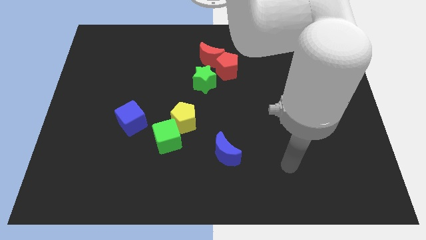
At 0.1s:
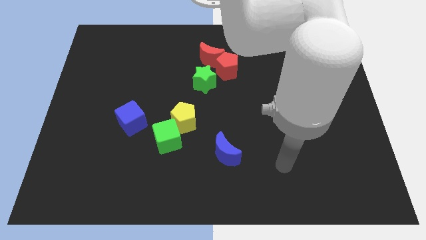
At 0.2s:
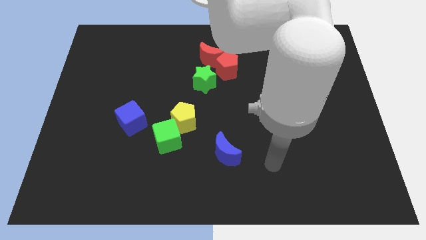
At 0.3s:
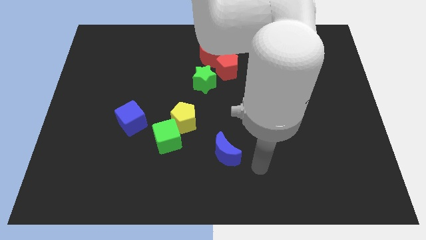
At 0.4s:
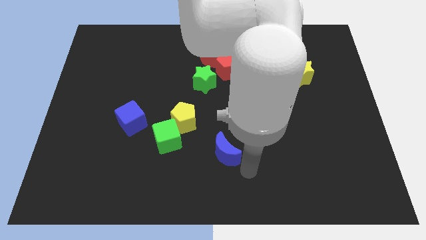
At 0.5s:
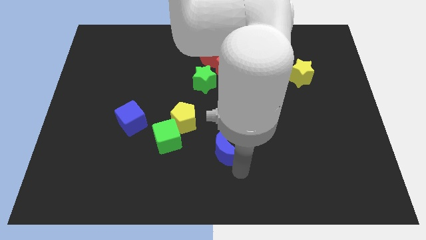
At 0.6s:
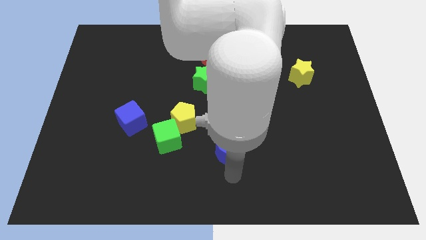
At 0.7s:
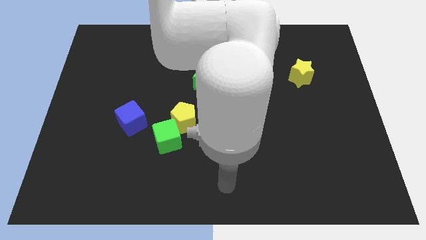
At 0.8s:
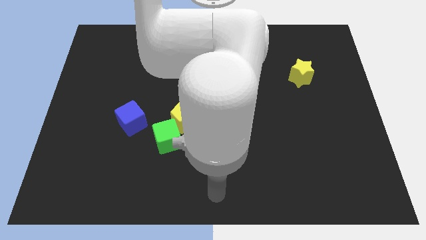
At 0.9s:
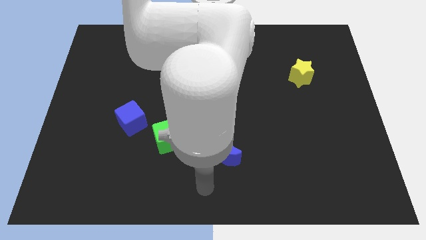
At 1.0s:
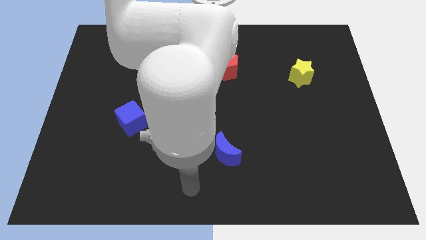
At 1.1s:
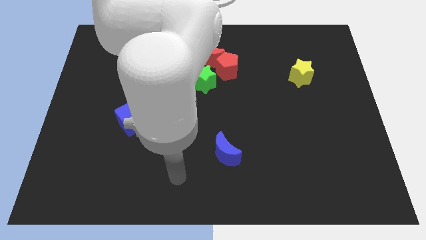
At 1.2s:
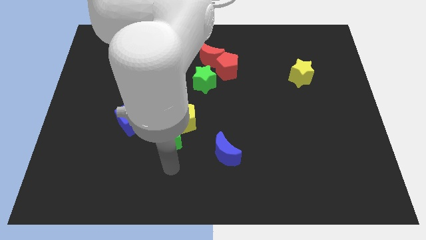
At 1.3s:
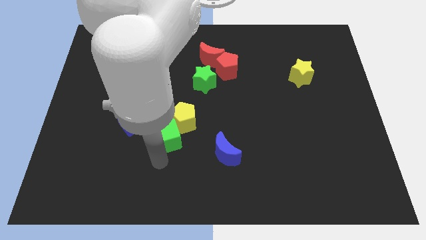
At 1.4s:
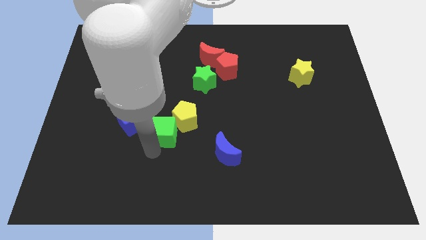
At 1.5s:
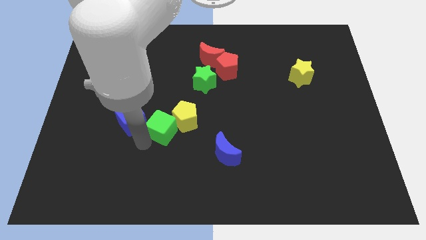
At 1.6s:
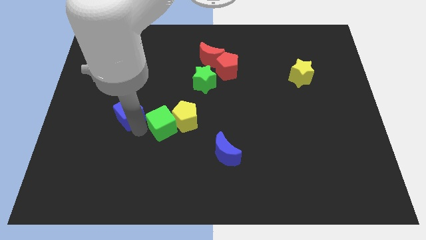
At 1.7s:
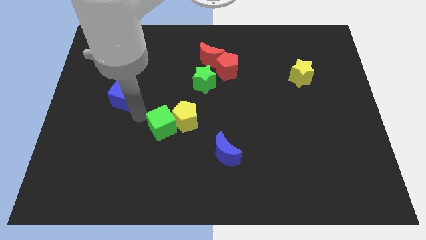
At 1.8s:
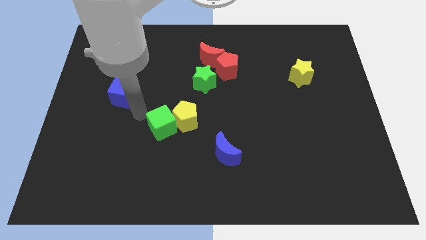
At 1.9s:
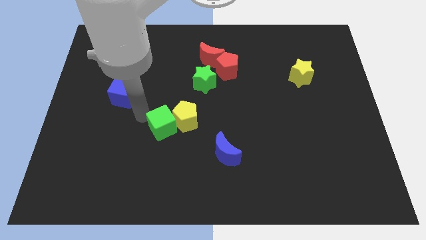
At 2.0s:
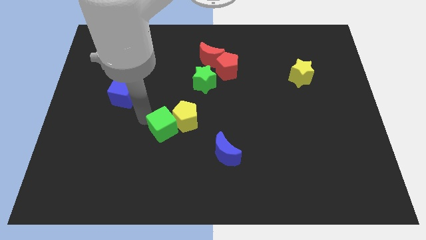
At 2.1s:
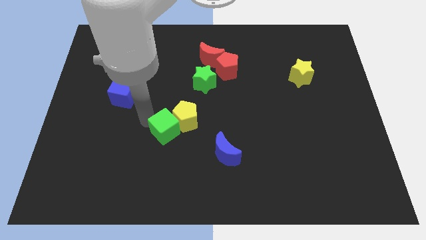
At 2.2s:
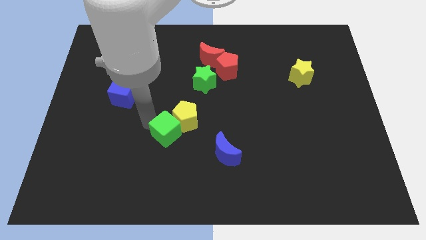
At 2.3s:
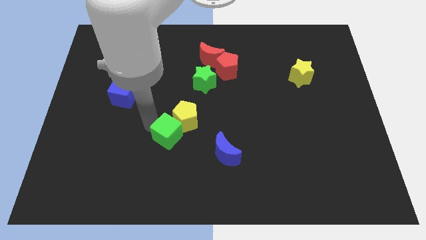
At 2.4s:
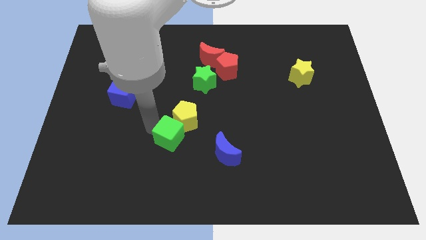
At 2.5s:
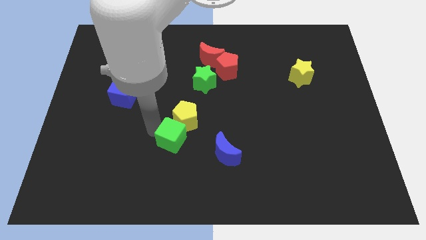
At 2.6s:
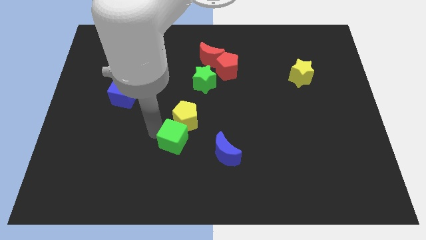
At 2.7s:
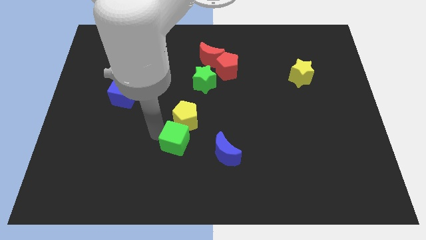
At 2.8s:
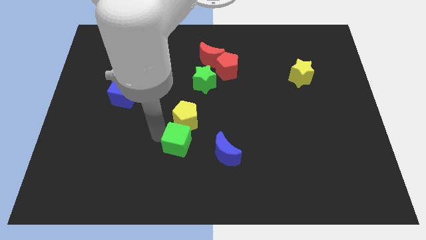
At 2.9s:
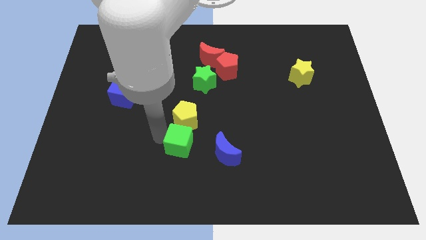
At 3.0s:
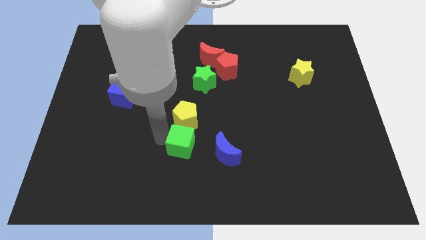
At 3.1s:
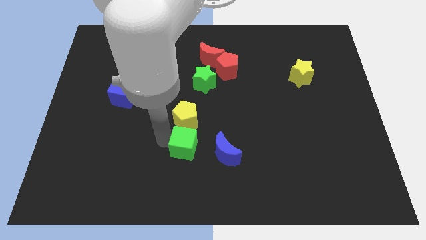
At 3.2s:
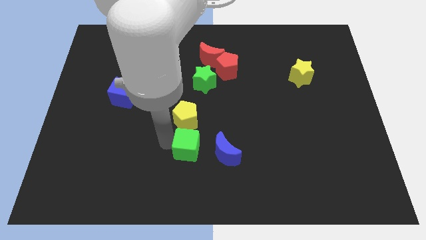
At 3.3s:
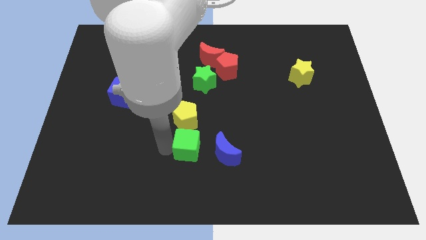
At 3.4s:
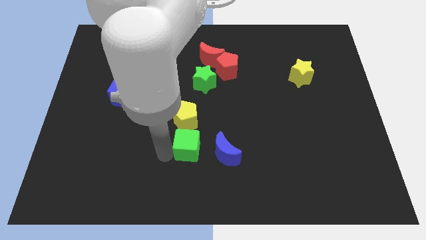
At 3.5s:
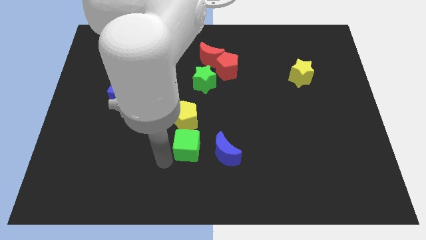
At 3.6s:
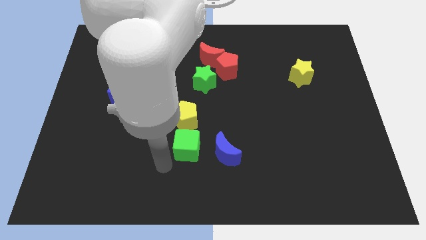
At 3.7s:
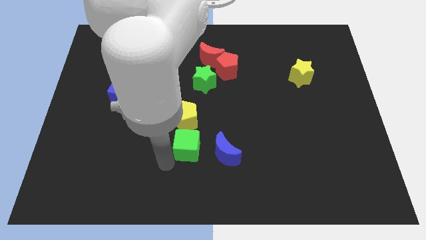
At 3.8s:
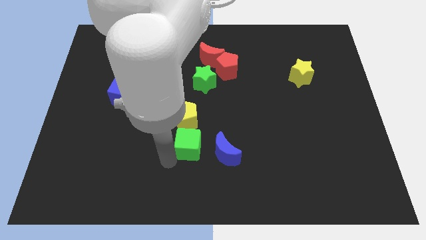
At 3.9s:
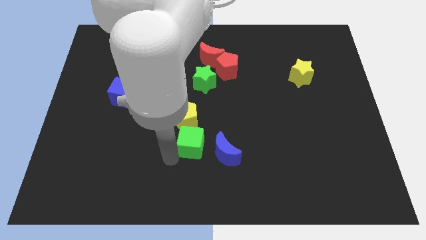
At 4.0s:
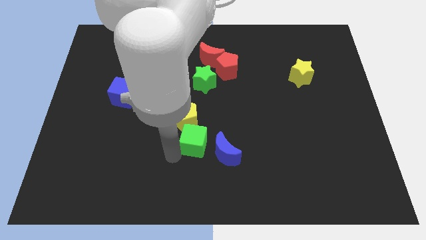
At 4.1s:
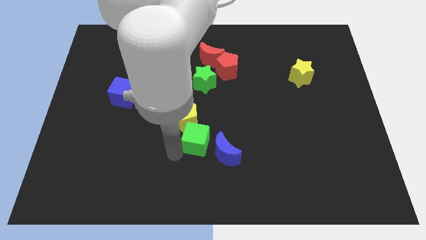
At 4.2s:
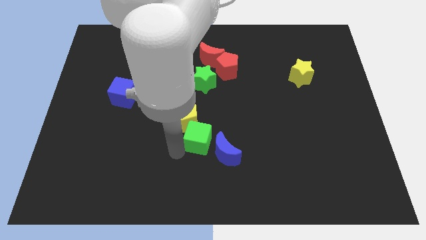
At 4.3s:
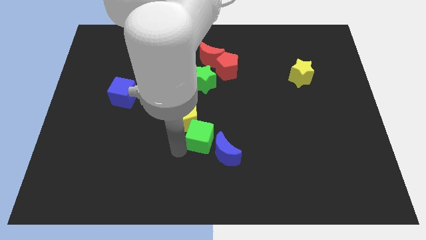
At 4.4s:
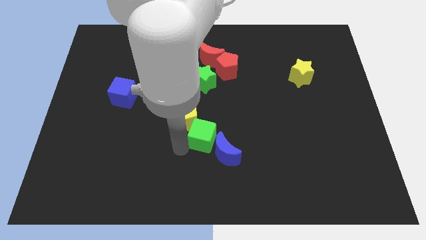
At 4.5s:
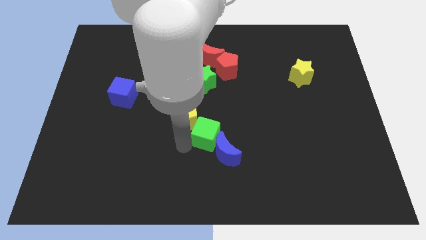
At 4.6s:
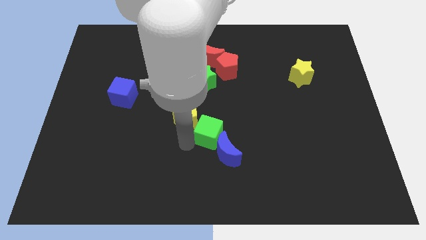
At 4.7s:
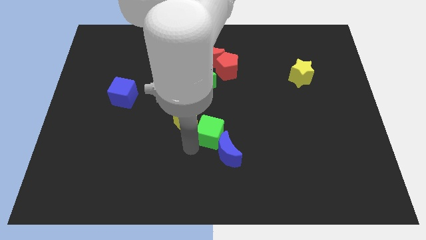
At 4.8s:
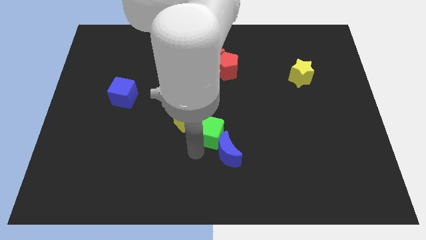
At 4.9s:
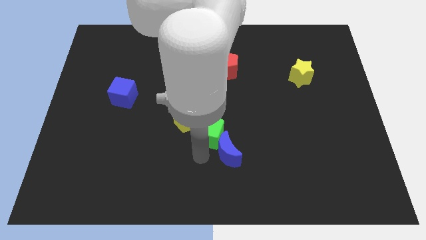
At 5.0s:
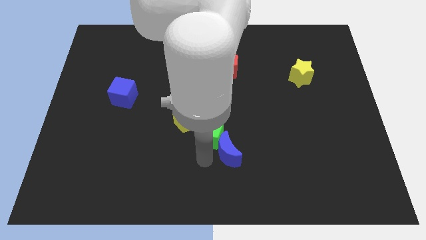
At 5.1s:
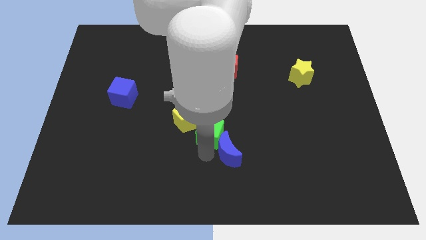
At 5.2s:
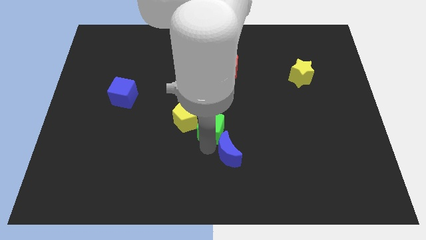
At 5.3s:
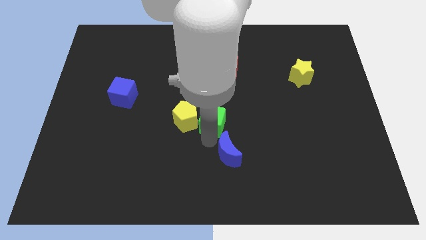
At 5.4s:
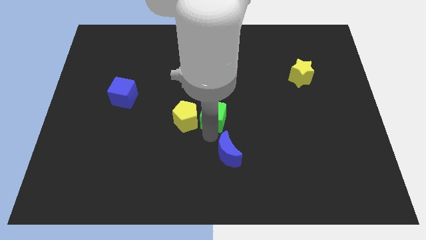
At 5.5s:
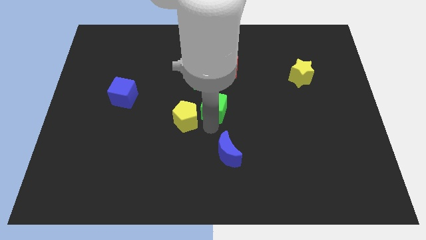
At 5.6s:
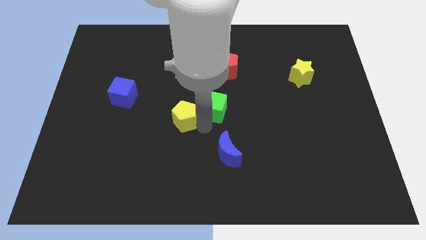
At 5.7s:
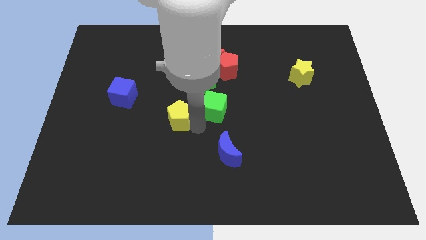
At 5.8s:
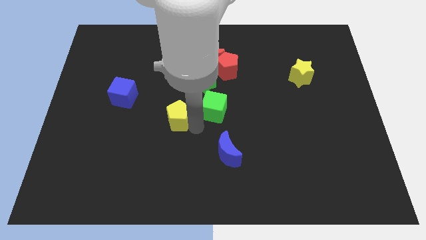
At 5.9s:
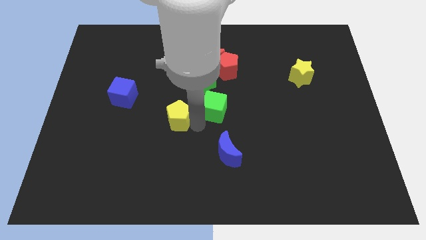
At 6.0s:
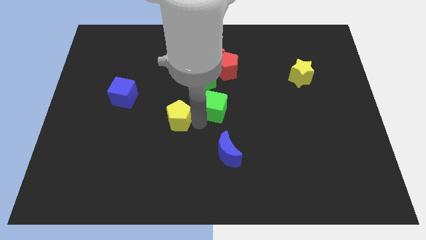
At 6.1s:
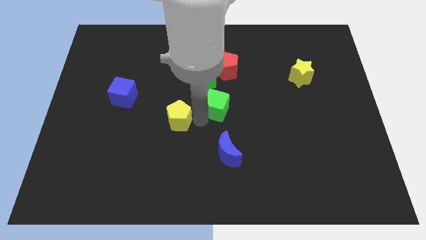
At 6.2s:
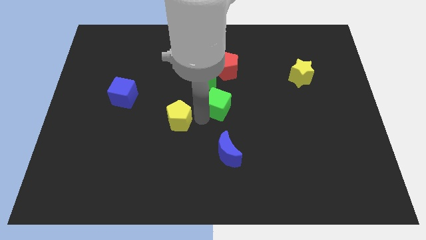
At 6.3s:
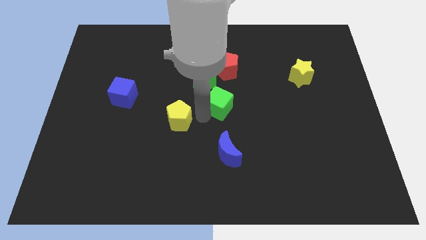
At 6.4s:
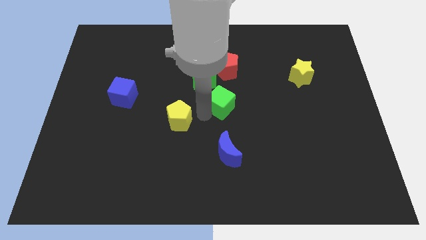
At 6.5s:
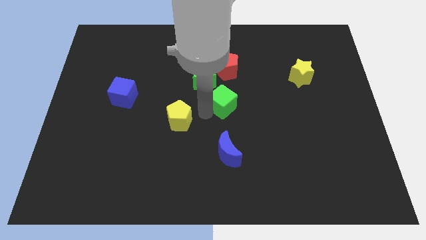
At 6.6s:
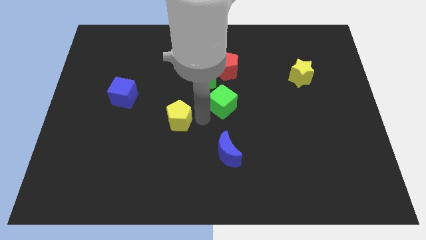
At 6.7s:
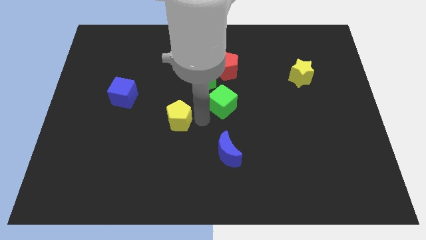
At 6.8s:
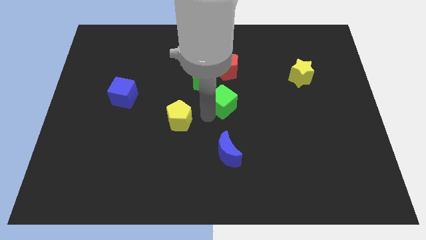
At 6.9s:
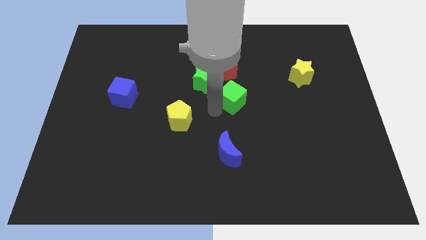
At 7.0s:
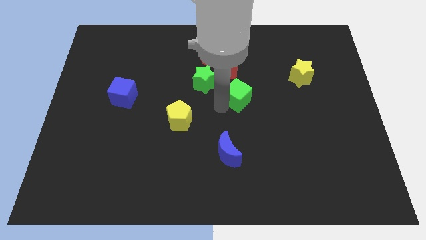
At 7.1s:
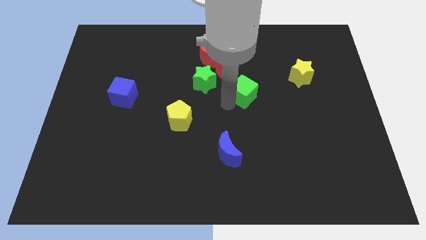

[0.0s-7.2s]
slide the green cube diagonally down and to the right of the red pentagon
